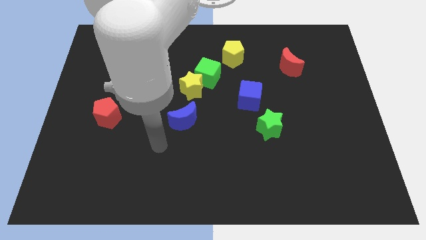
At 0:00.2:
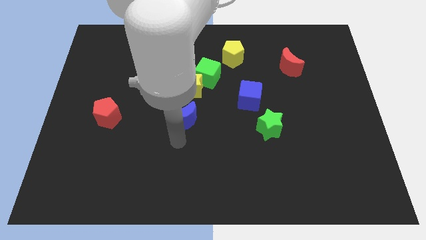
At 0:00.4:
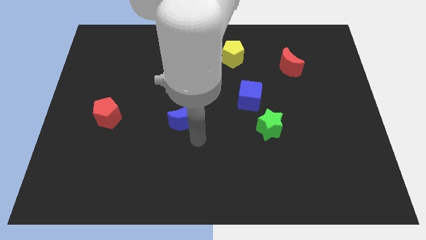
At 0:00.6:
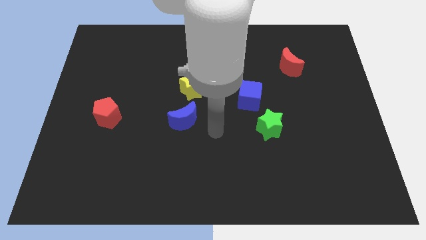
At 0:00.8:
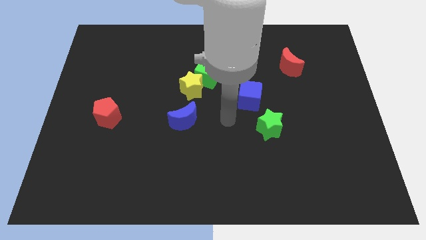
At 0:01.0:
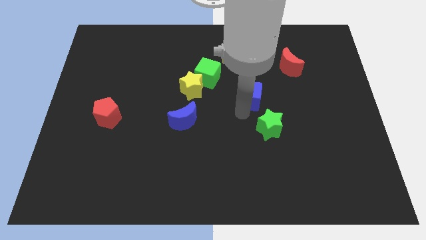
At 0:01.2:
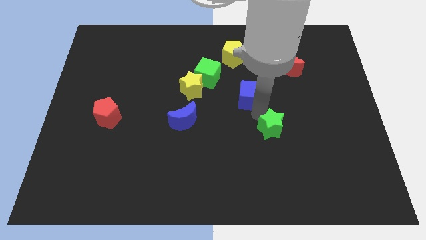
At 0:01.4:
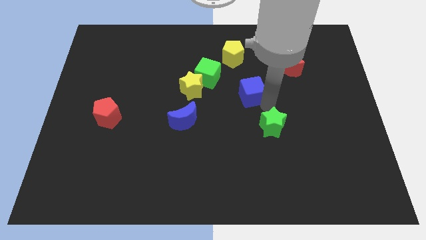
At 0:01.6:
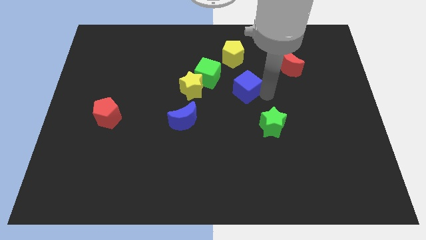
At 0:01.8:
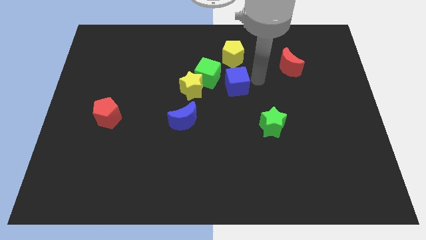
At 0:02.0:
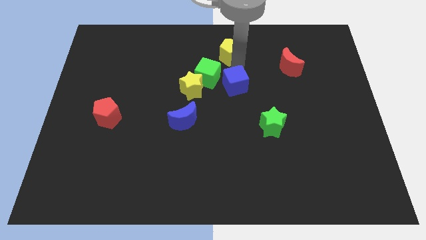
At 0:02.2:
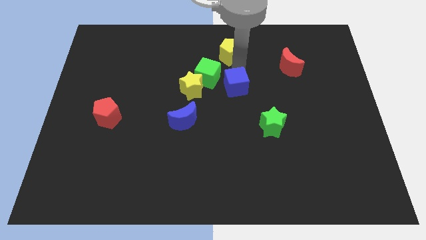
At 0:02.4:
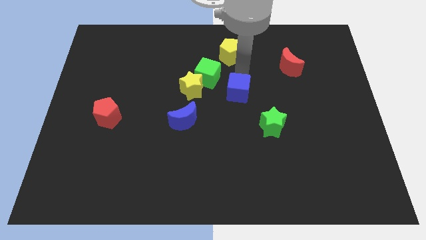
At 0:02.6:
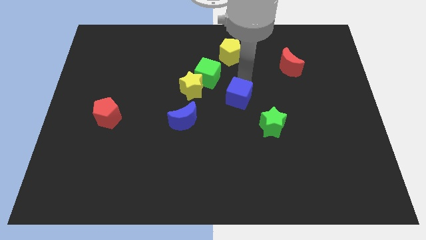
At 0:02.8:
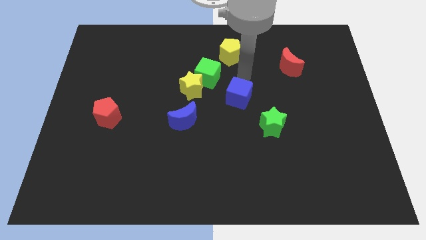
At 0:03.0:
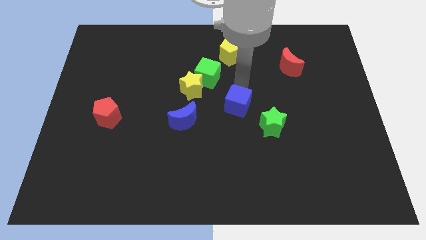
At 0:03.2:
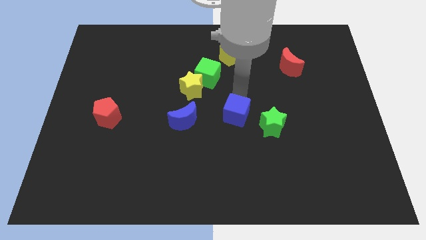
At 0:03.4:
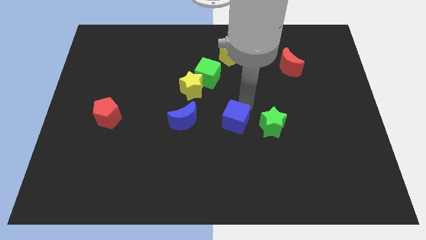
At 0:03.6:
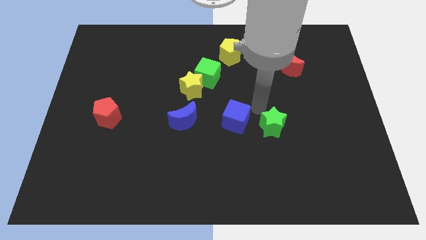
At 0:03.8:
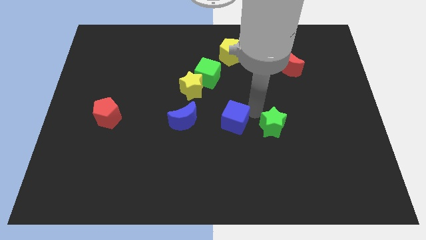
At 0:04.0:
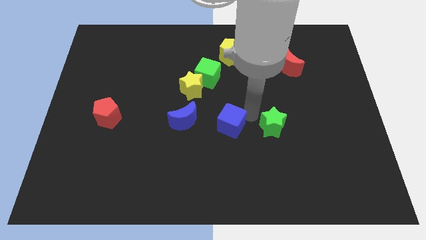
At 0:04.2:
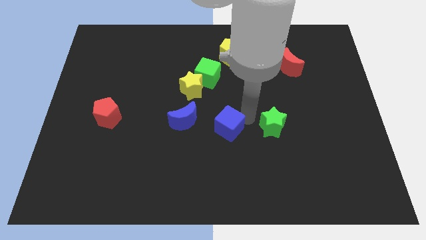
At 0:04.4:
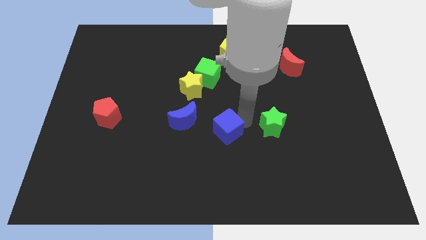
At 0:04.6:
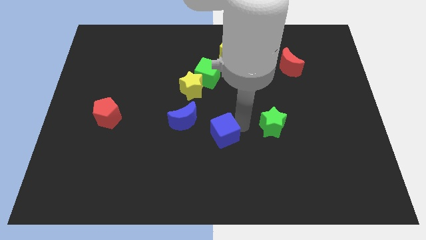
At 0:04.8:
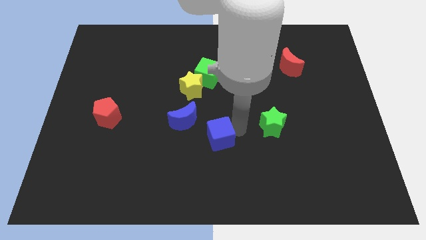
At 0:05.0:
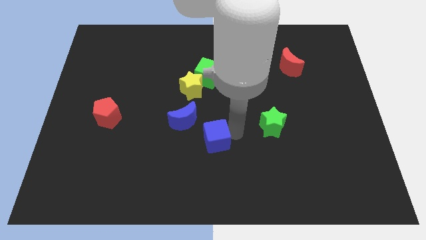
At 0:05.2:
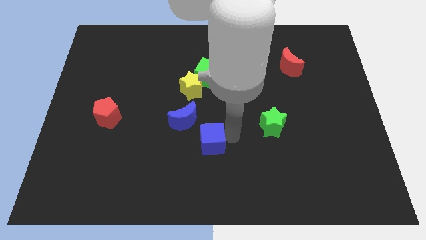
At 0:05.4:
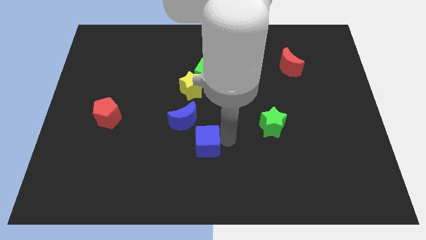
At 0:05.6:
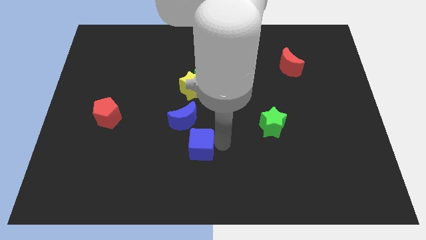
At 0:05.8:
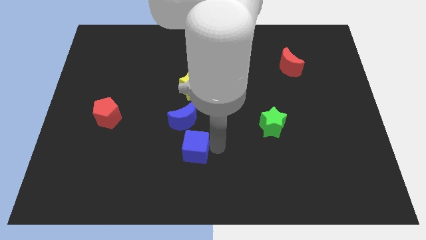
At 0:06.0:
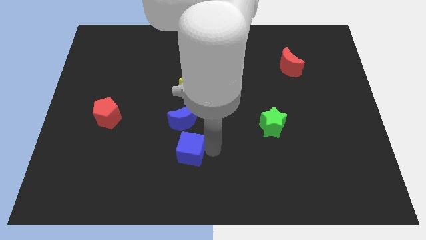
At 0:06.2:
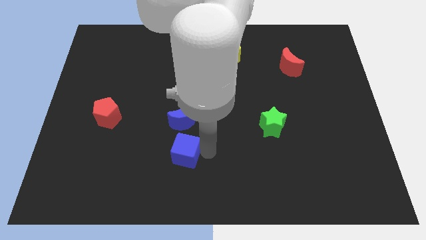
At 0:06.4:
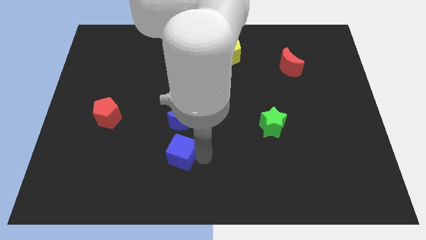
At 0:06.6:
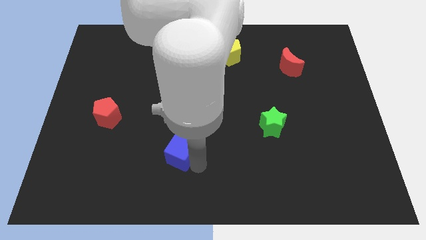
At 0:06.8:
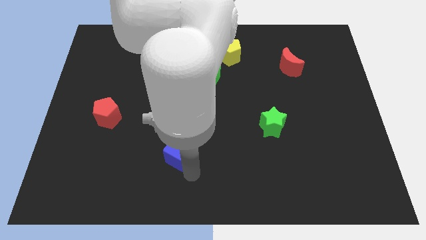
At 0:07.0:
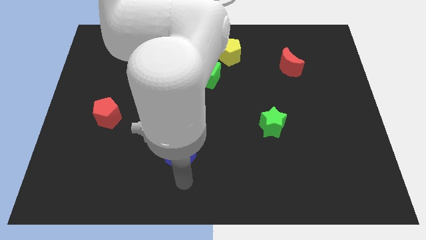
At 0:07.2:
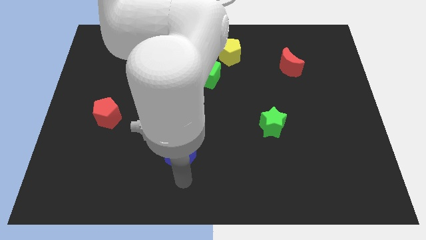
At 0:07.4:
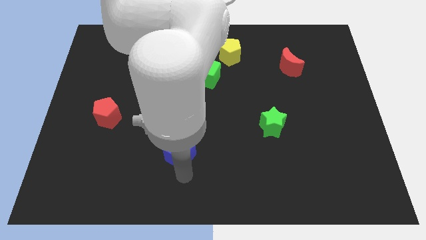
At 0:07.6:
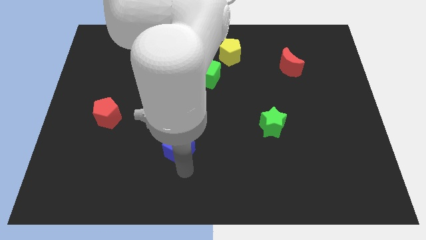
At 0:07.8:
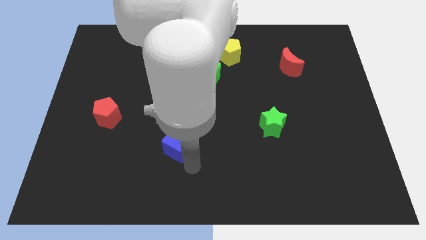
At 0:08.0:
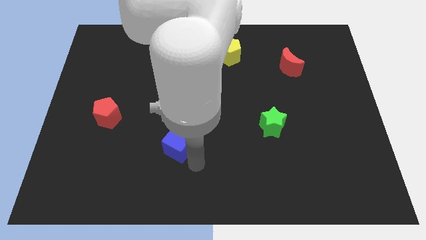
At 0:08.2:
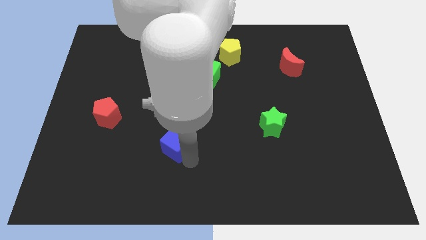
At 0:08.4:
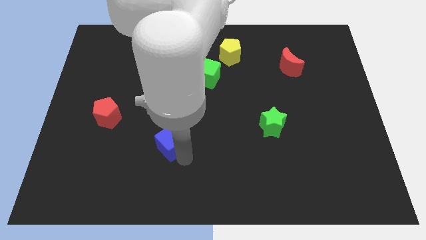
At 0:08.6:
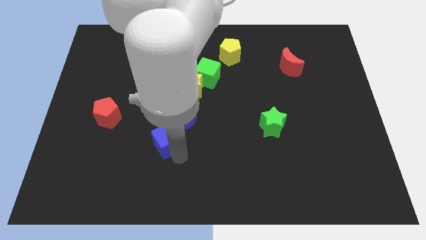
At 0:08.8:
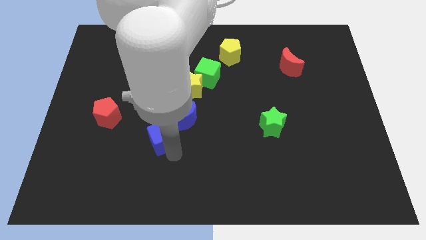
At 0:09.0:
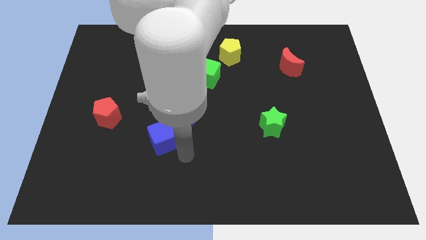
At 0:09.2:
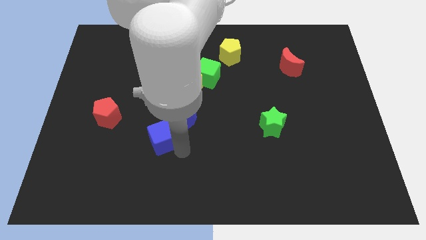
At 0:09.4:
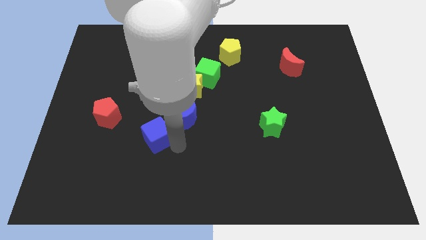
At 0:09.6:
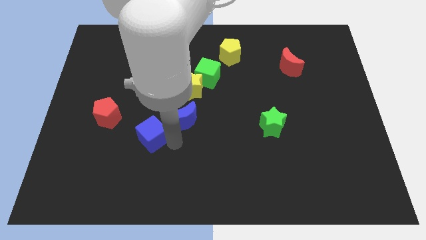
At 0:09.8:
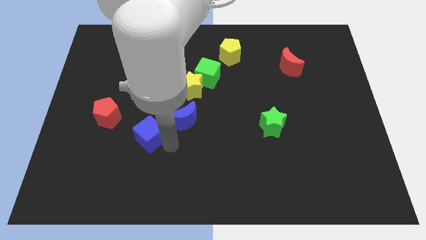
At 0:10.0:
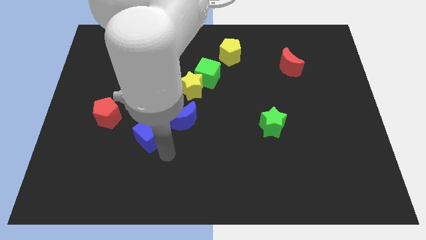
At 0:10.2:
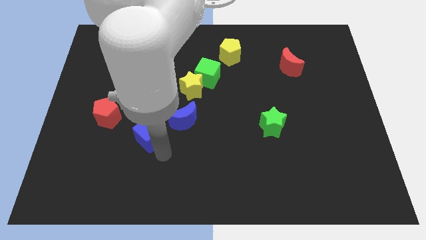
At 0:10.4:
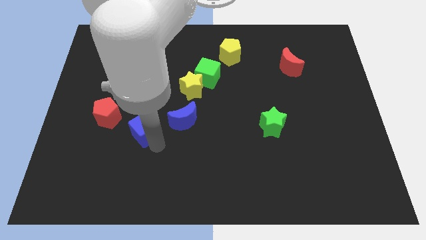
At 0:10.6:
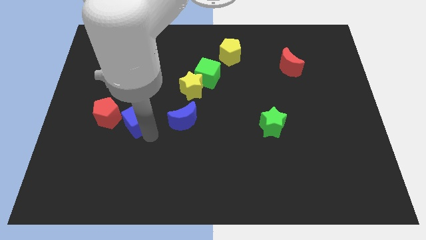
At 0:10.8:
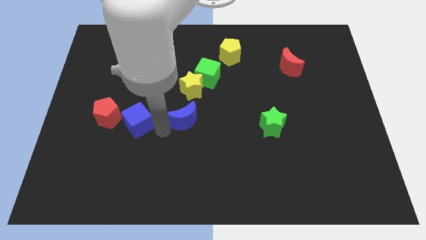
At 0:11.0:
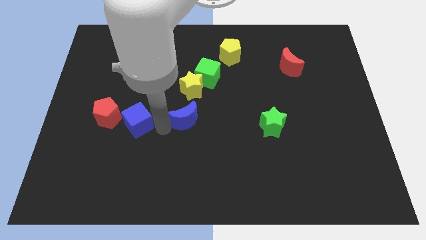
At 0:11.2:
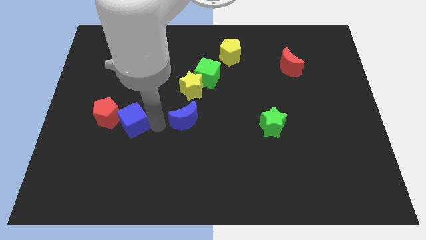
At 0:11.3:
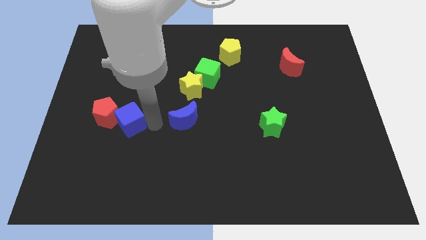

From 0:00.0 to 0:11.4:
put the blue cube next to the red pentagon

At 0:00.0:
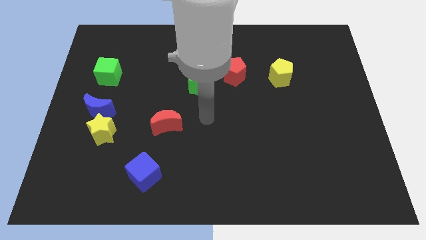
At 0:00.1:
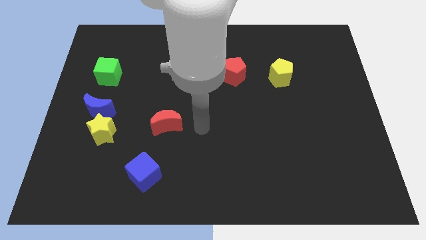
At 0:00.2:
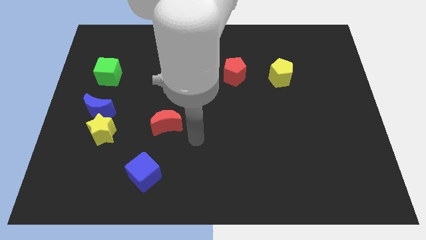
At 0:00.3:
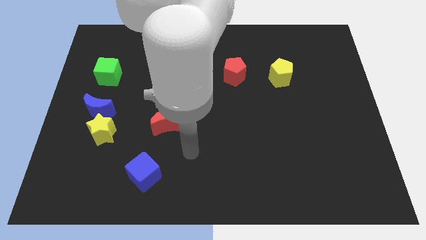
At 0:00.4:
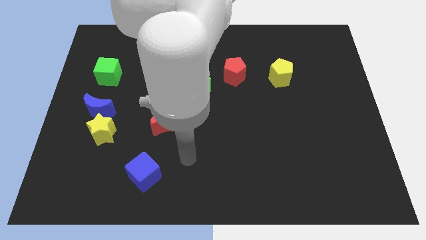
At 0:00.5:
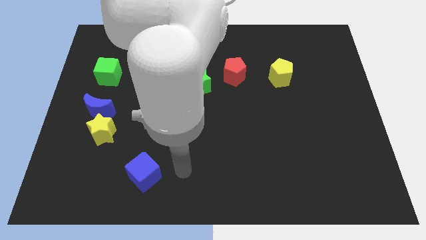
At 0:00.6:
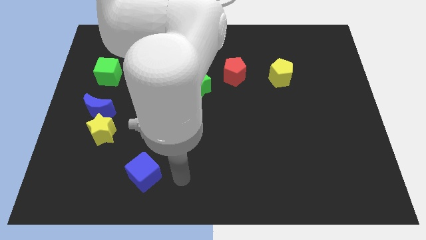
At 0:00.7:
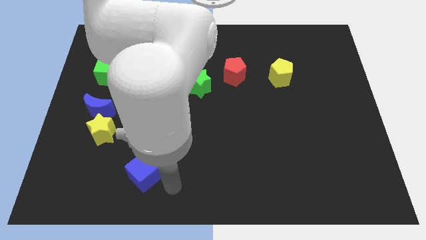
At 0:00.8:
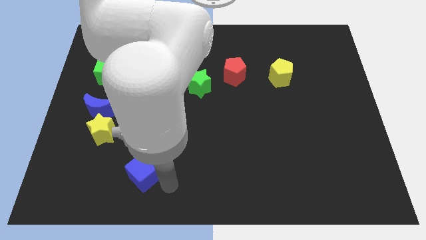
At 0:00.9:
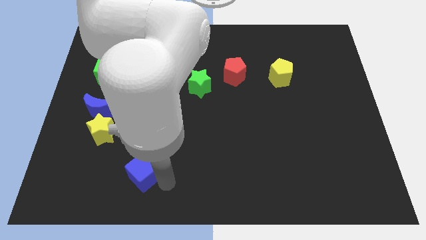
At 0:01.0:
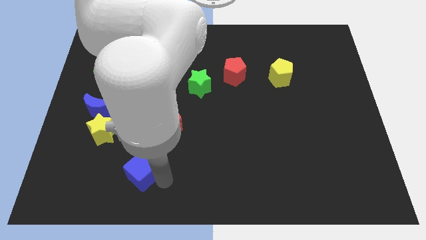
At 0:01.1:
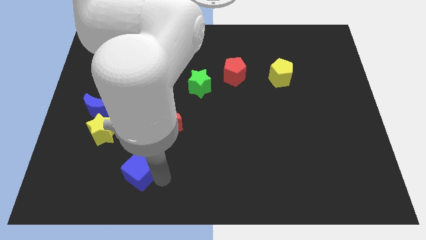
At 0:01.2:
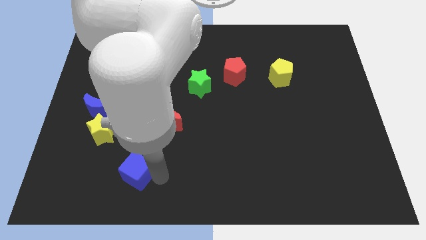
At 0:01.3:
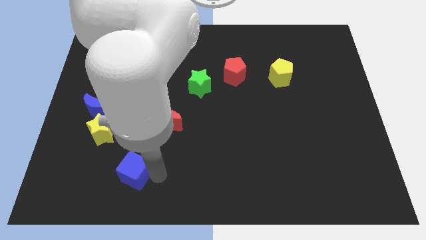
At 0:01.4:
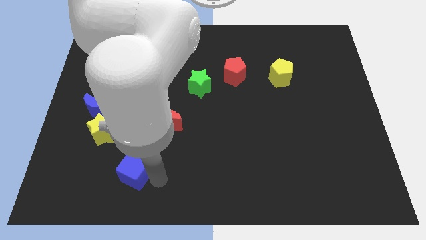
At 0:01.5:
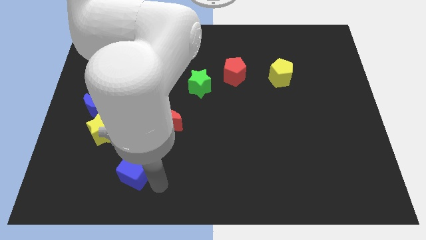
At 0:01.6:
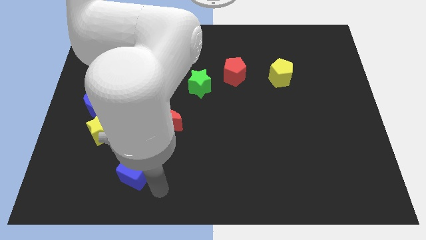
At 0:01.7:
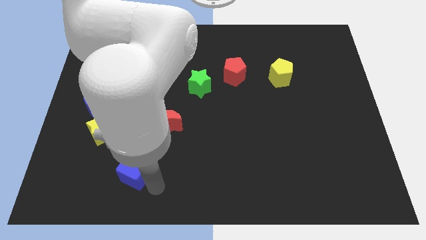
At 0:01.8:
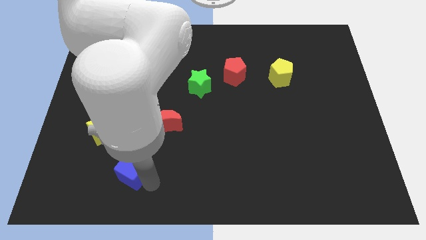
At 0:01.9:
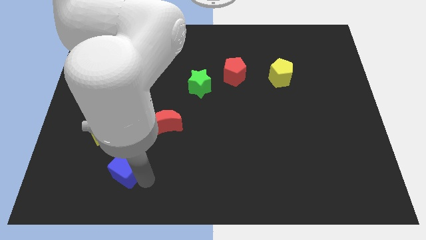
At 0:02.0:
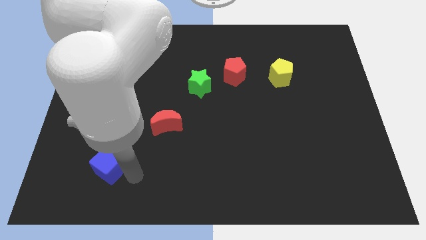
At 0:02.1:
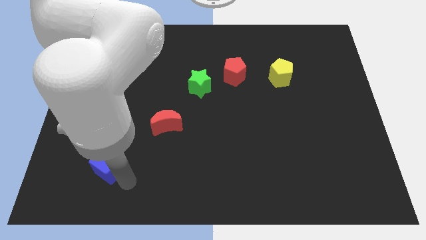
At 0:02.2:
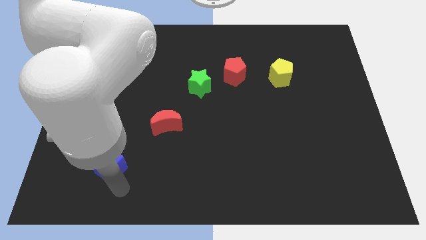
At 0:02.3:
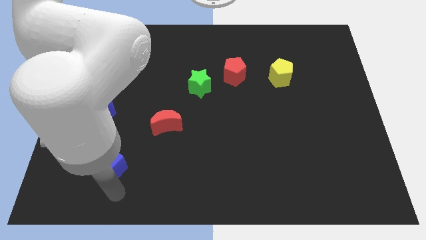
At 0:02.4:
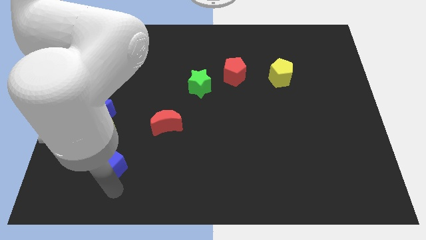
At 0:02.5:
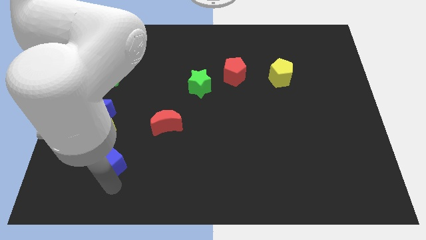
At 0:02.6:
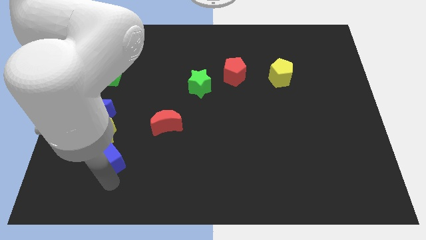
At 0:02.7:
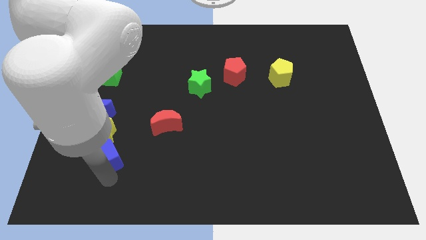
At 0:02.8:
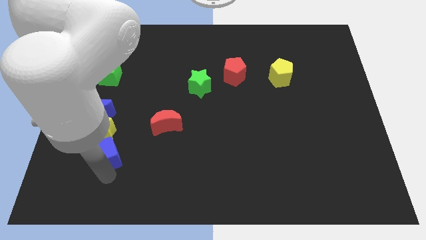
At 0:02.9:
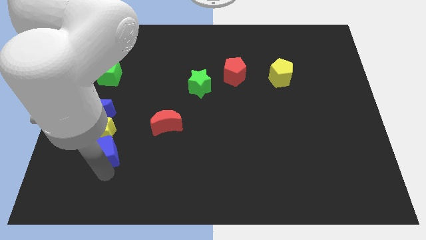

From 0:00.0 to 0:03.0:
put the blue cube to the yellow star
